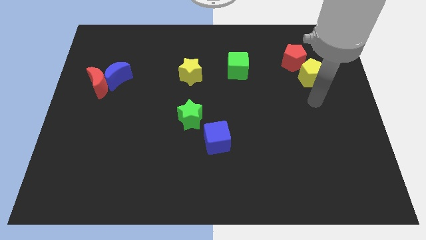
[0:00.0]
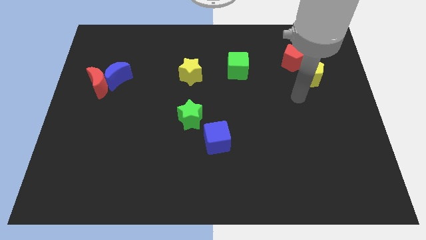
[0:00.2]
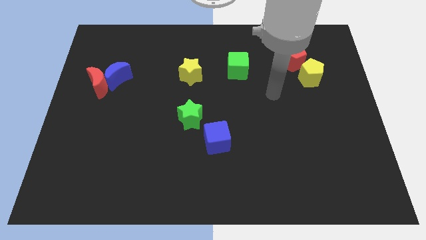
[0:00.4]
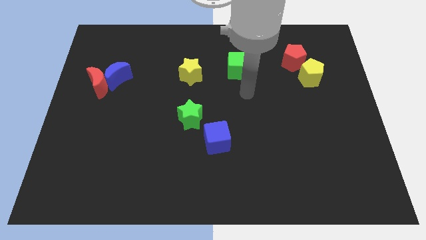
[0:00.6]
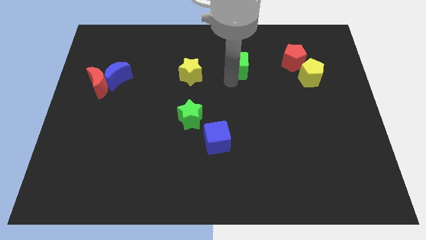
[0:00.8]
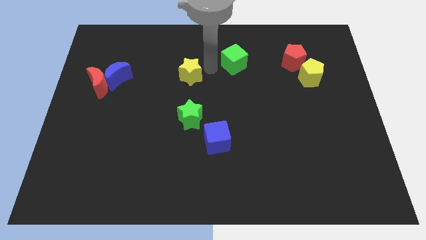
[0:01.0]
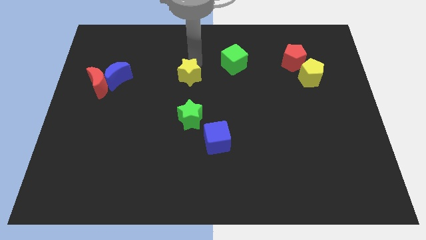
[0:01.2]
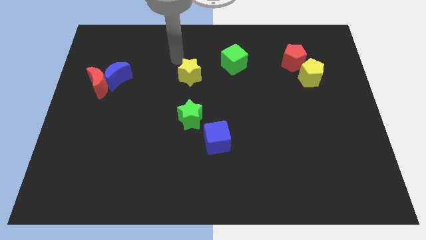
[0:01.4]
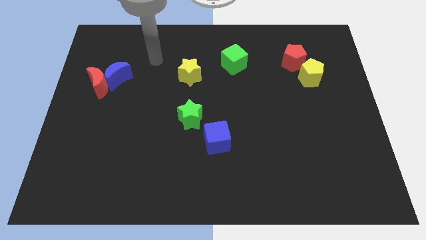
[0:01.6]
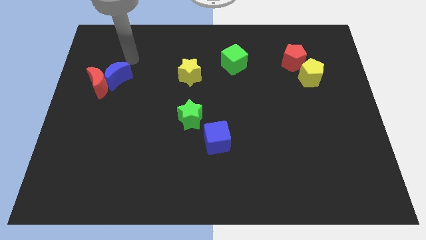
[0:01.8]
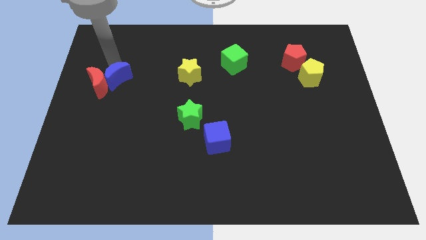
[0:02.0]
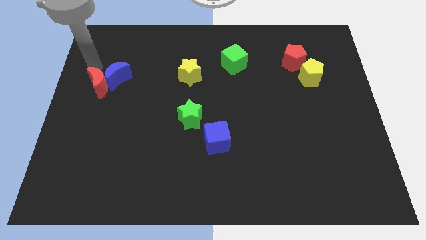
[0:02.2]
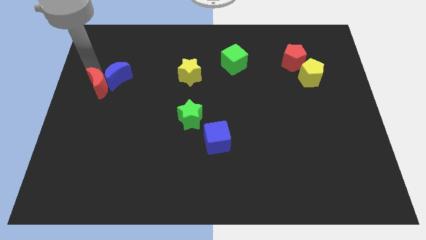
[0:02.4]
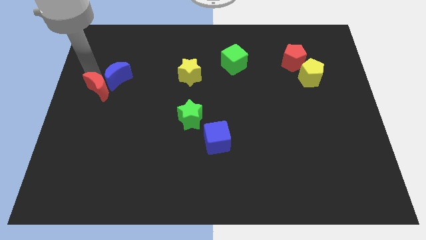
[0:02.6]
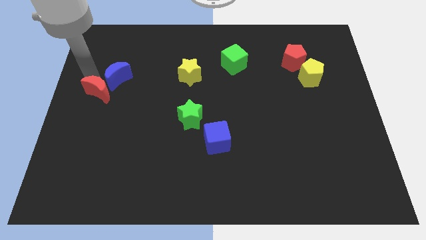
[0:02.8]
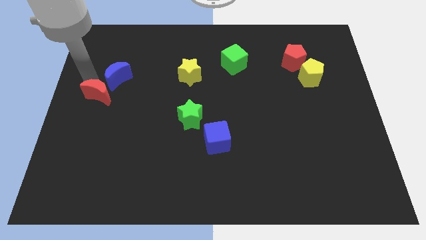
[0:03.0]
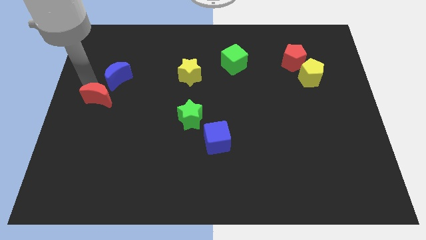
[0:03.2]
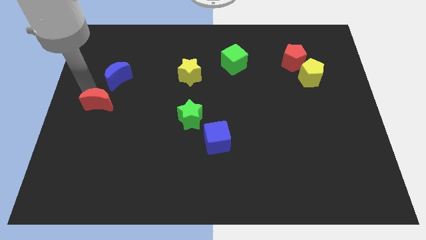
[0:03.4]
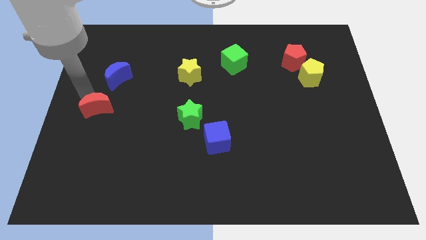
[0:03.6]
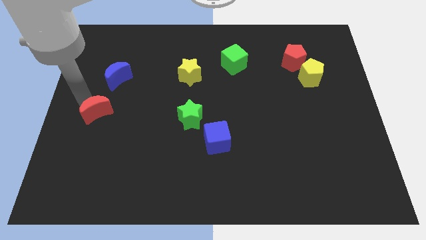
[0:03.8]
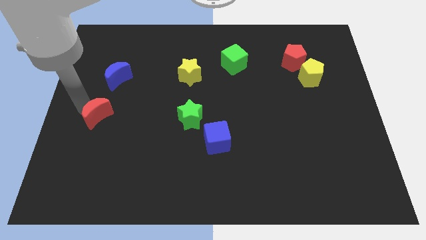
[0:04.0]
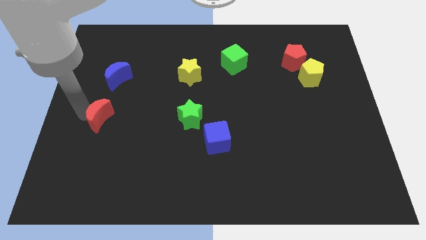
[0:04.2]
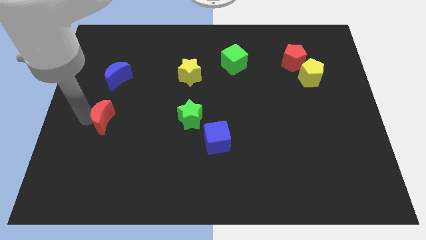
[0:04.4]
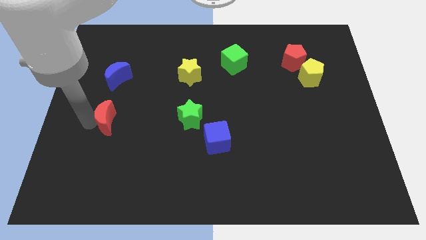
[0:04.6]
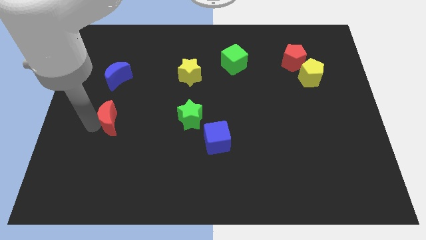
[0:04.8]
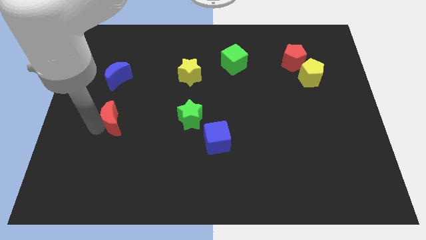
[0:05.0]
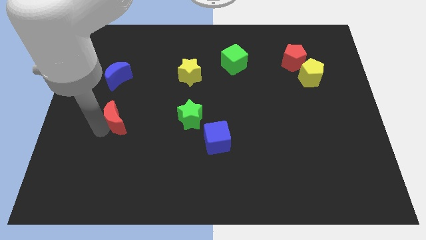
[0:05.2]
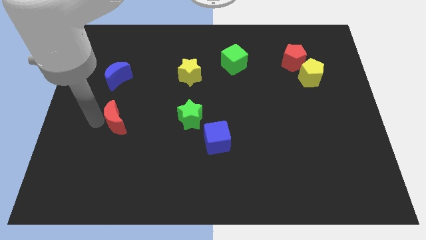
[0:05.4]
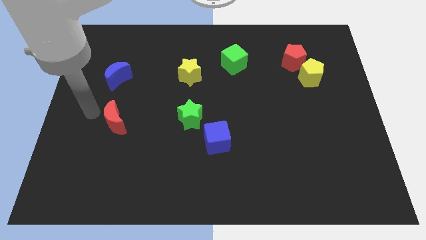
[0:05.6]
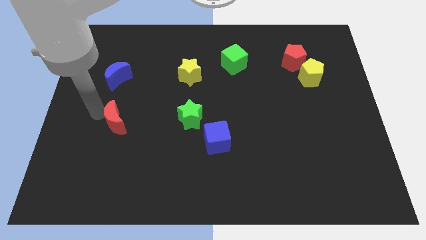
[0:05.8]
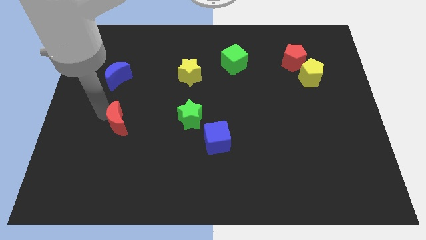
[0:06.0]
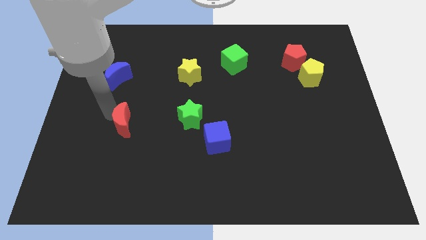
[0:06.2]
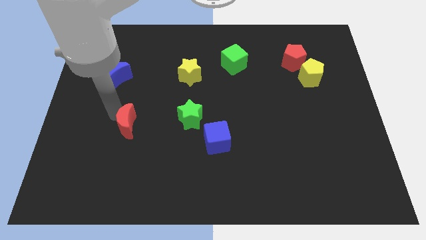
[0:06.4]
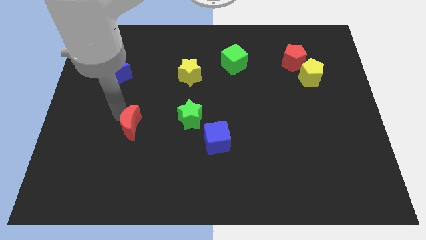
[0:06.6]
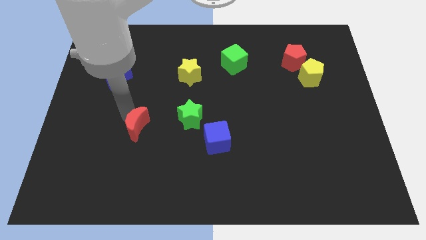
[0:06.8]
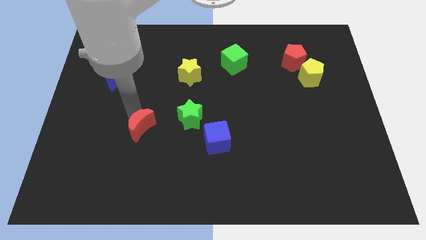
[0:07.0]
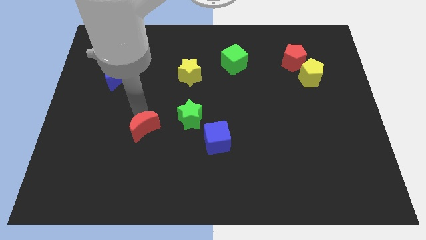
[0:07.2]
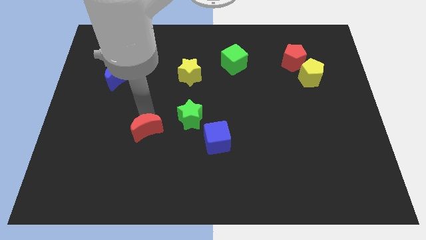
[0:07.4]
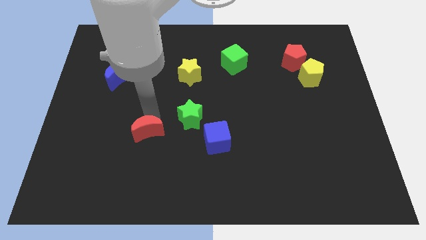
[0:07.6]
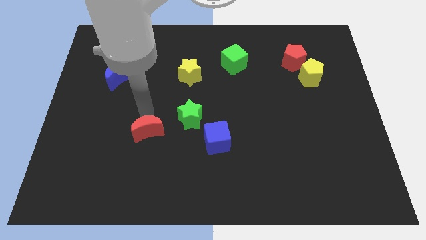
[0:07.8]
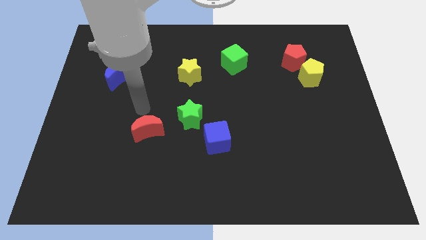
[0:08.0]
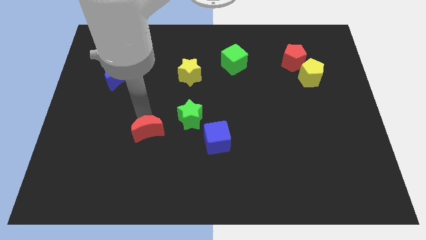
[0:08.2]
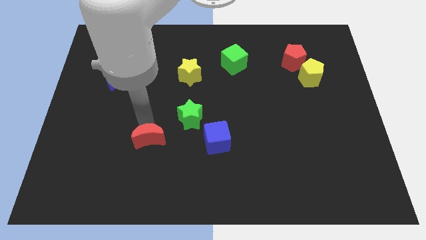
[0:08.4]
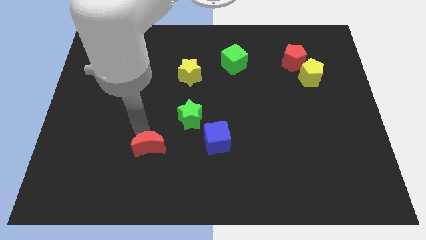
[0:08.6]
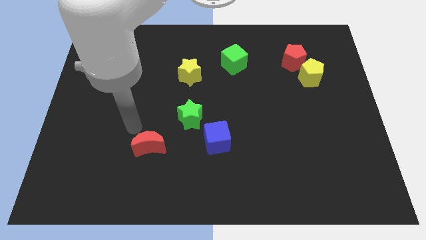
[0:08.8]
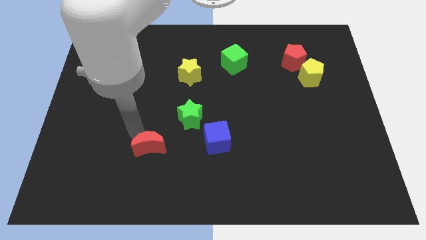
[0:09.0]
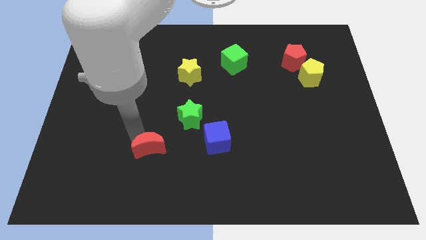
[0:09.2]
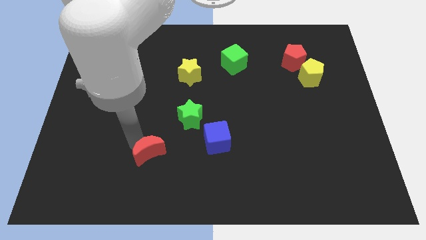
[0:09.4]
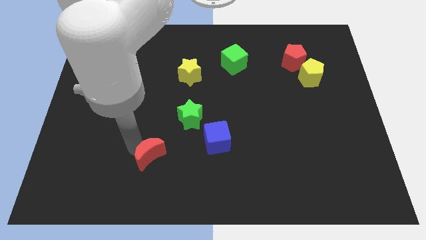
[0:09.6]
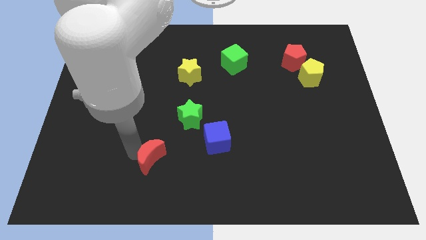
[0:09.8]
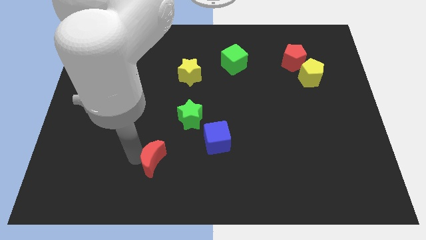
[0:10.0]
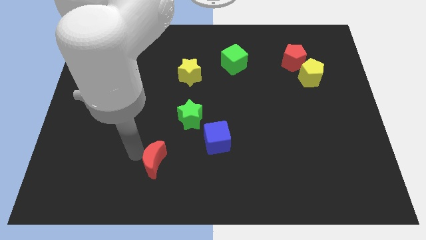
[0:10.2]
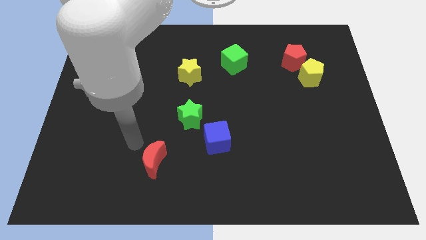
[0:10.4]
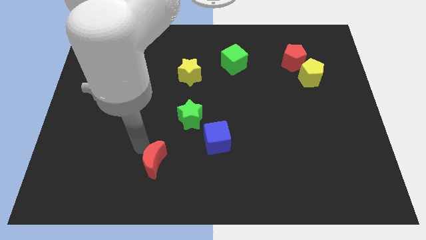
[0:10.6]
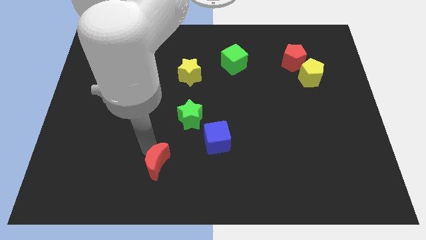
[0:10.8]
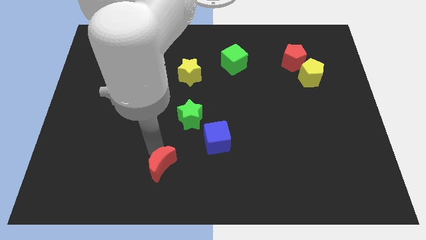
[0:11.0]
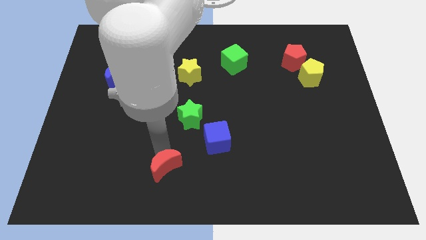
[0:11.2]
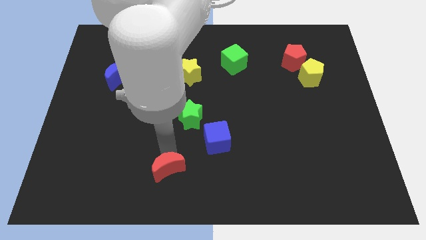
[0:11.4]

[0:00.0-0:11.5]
push the red moon to the bottom side

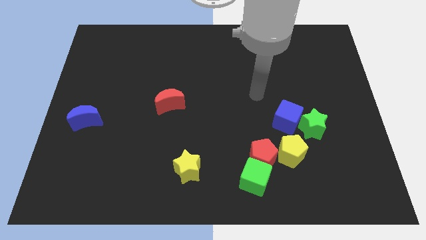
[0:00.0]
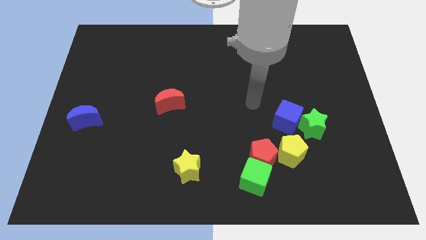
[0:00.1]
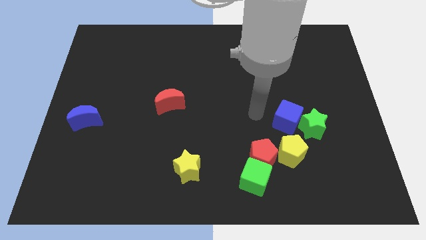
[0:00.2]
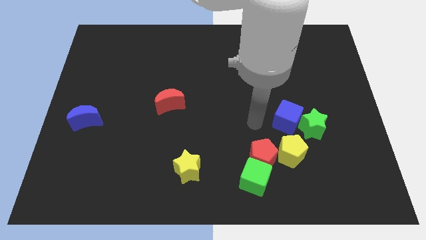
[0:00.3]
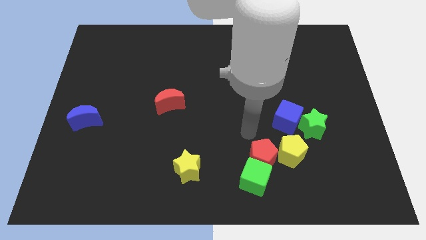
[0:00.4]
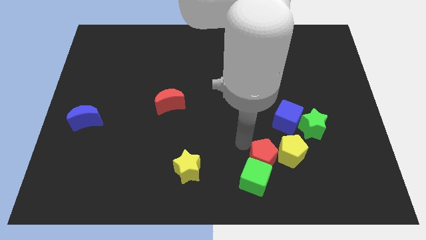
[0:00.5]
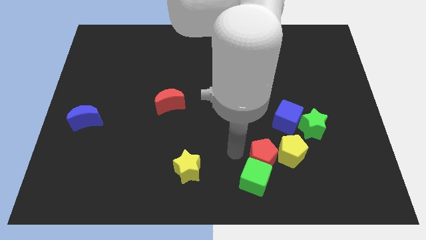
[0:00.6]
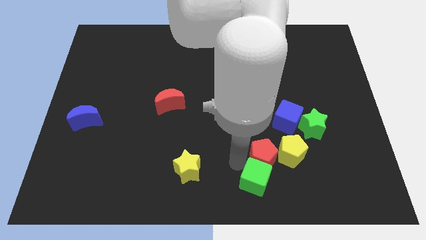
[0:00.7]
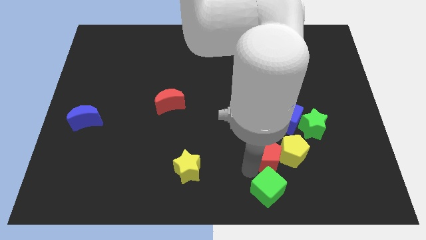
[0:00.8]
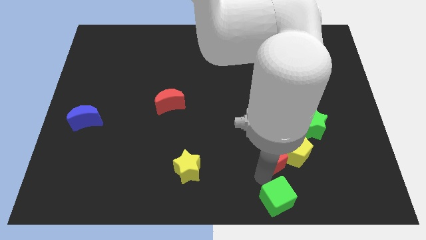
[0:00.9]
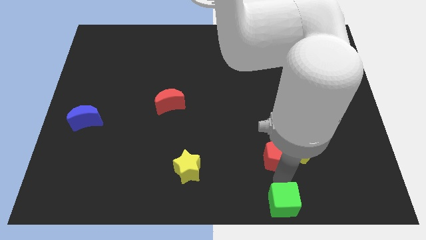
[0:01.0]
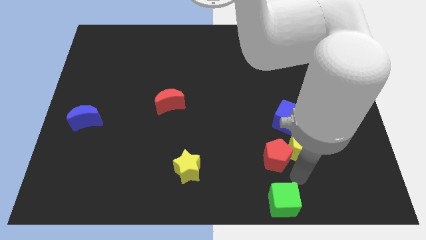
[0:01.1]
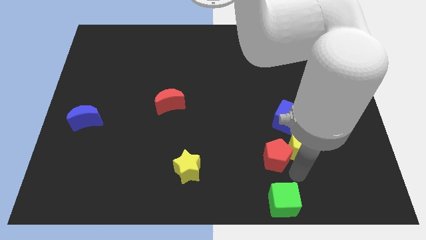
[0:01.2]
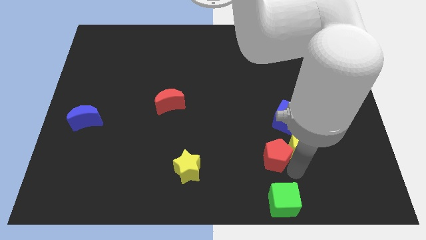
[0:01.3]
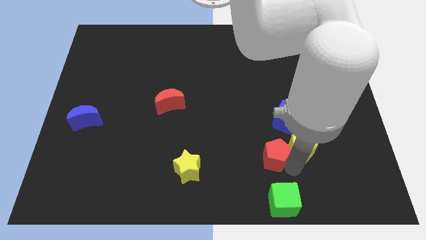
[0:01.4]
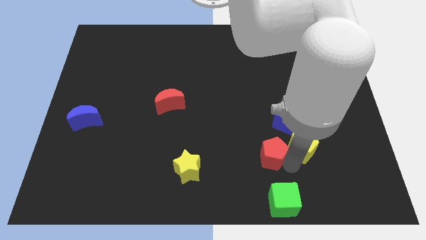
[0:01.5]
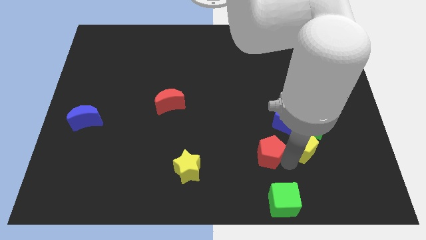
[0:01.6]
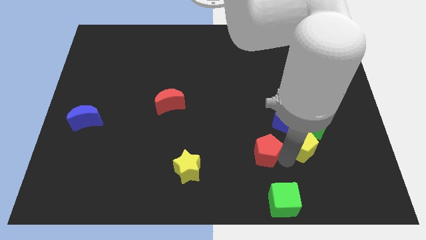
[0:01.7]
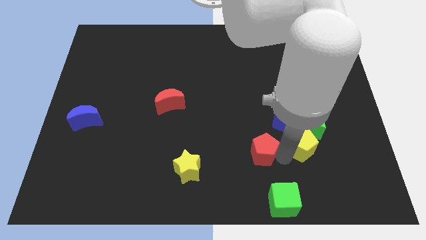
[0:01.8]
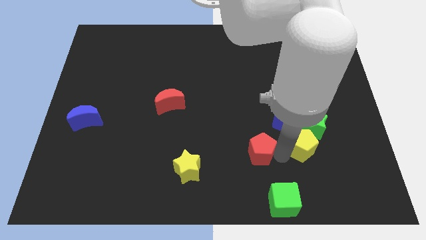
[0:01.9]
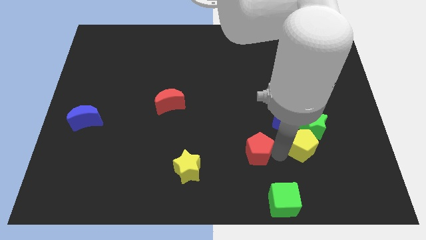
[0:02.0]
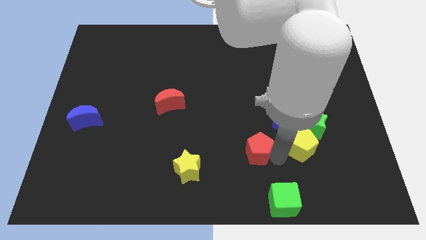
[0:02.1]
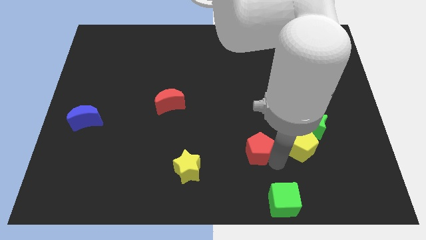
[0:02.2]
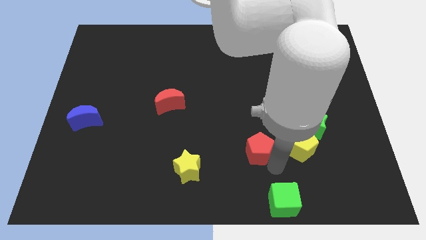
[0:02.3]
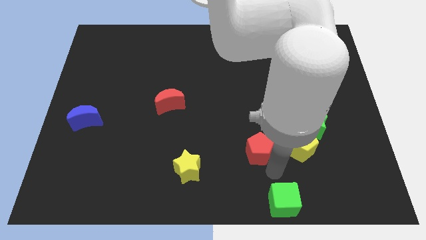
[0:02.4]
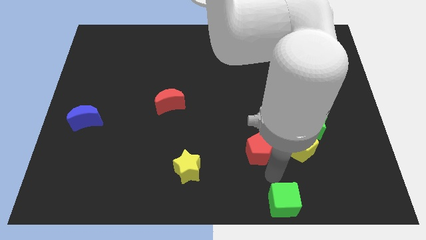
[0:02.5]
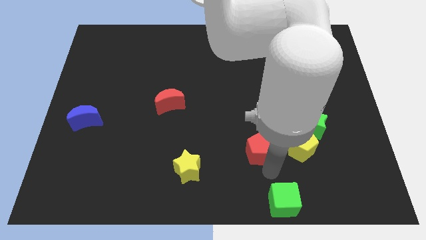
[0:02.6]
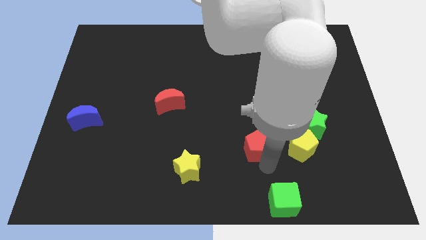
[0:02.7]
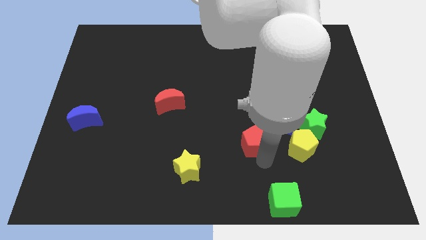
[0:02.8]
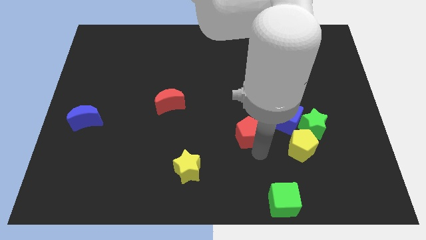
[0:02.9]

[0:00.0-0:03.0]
slide the red pentagon to the center of the board
